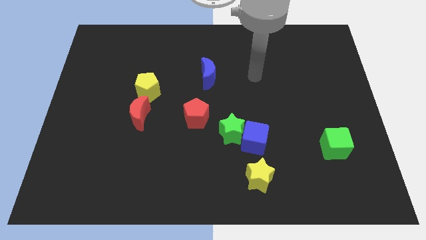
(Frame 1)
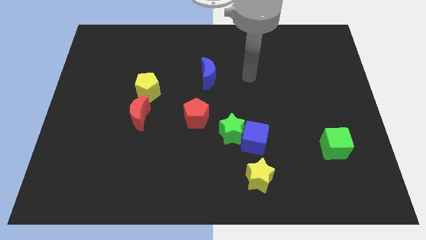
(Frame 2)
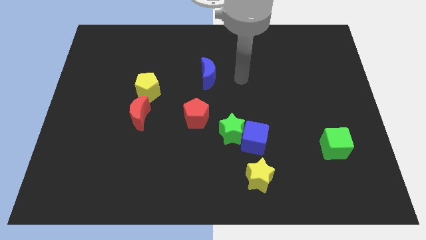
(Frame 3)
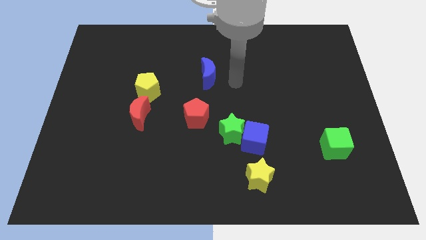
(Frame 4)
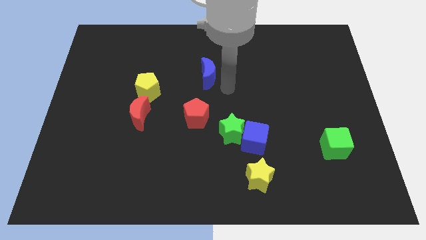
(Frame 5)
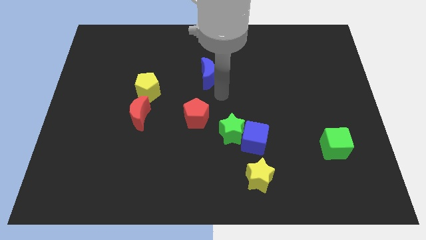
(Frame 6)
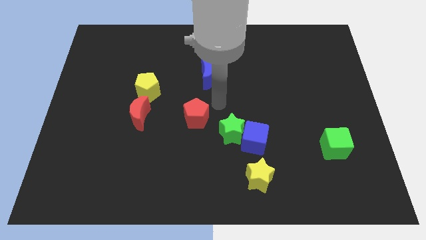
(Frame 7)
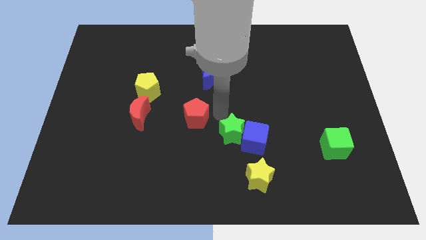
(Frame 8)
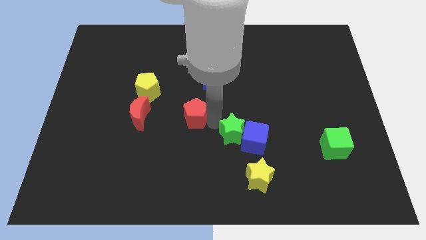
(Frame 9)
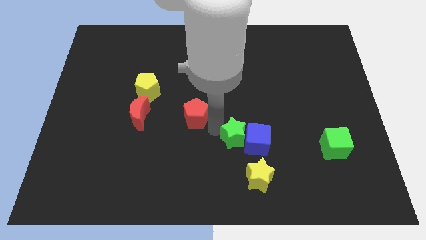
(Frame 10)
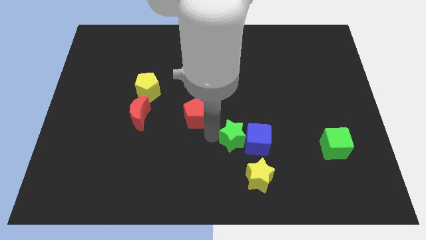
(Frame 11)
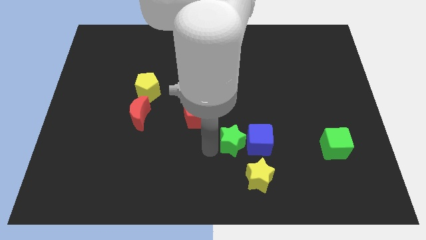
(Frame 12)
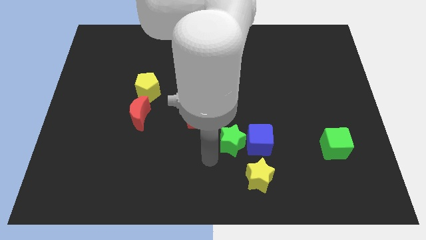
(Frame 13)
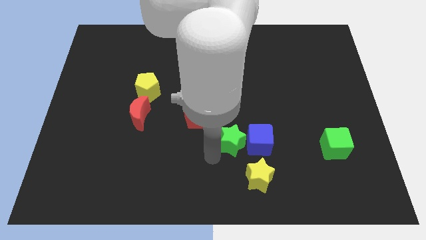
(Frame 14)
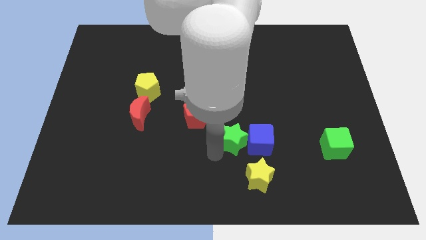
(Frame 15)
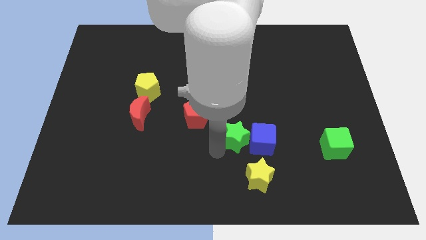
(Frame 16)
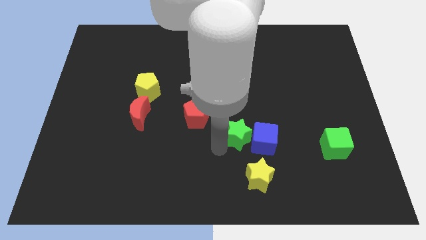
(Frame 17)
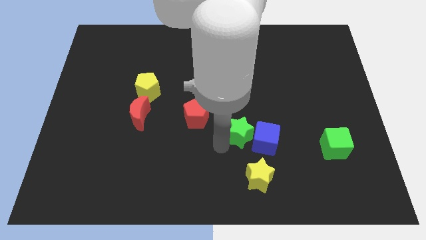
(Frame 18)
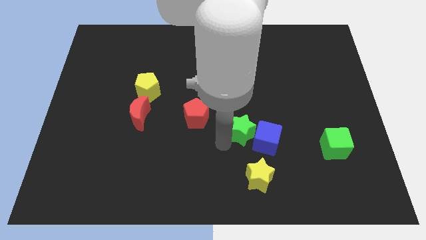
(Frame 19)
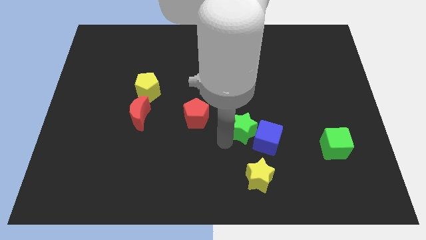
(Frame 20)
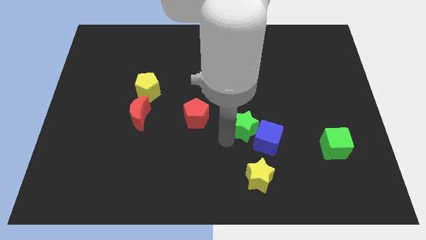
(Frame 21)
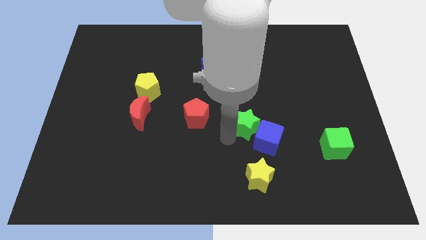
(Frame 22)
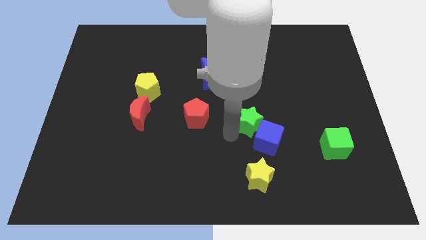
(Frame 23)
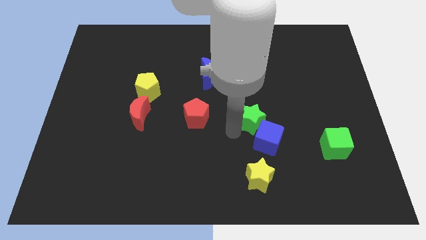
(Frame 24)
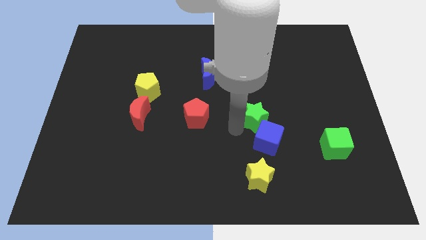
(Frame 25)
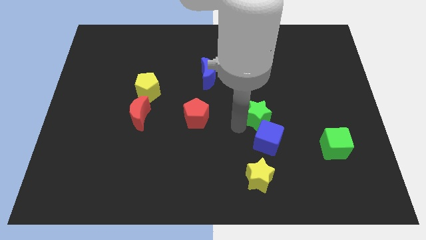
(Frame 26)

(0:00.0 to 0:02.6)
slide the green star up and to the right a little

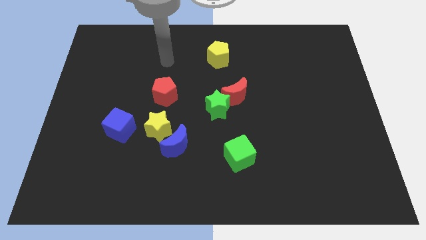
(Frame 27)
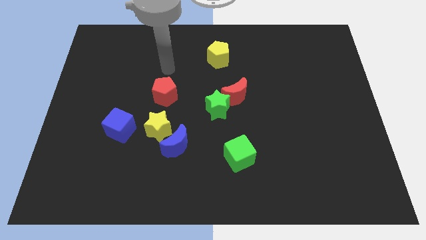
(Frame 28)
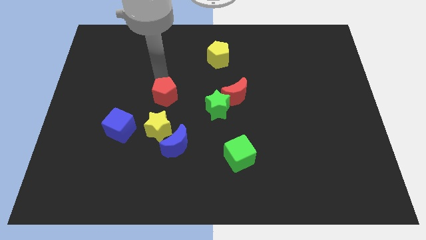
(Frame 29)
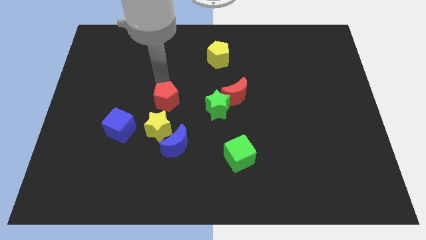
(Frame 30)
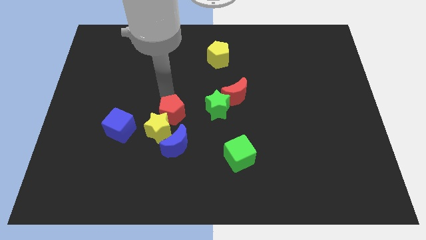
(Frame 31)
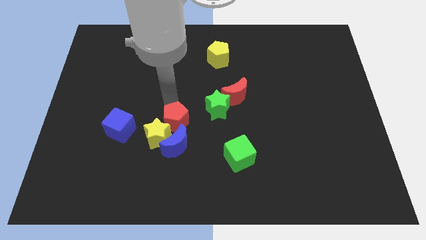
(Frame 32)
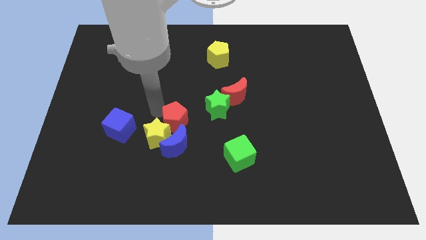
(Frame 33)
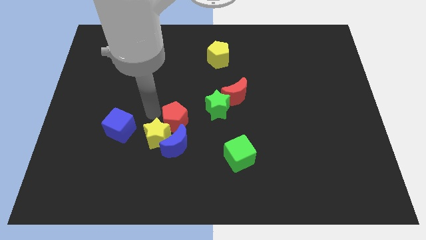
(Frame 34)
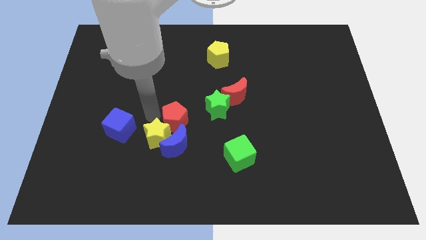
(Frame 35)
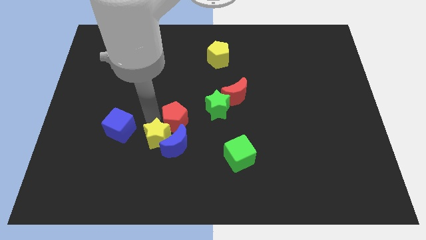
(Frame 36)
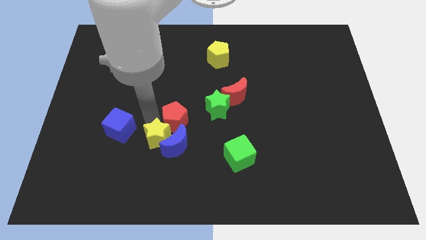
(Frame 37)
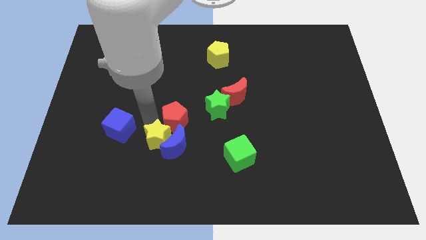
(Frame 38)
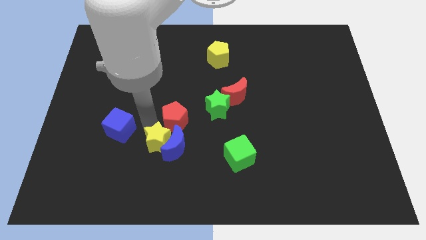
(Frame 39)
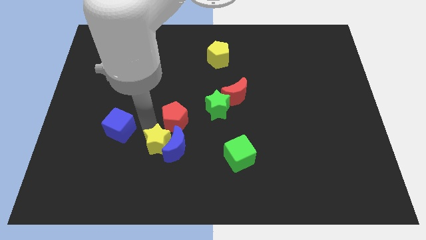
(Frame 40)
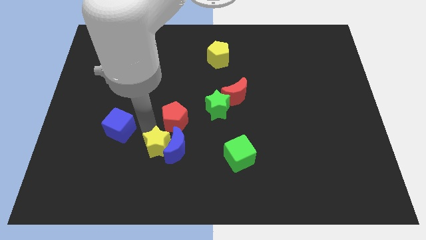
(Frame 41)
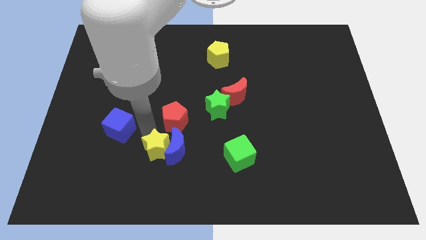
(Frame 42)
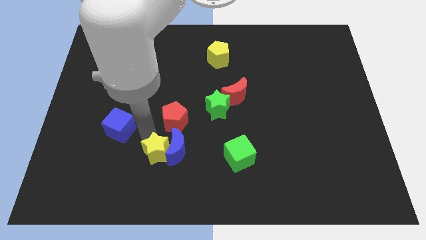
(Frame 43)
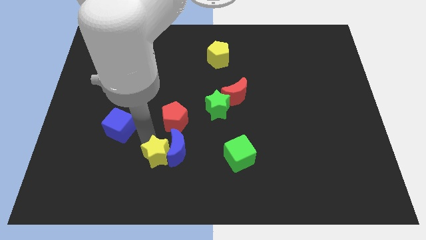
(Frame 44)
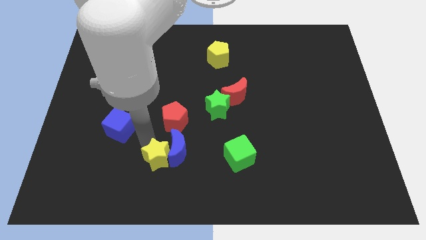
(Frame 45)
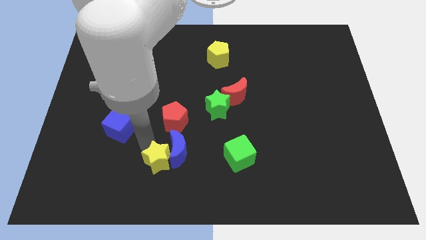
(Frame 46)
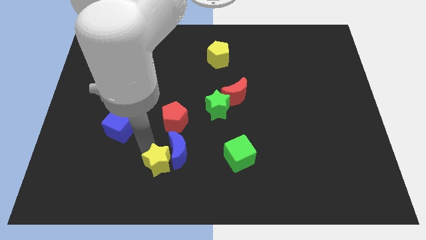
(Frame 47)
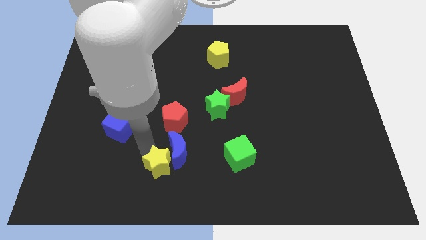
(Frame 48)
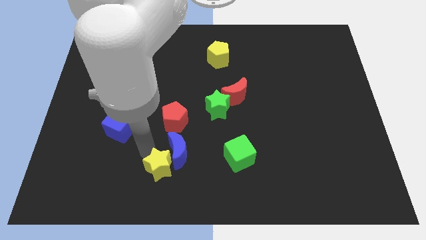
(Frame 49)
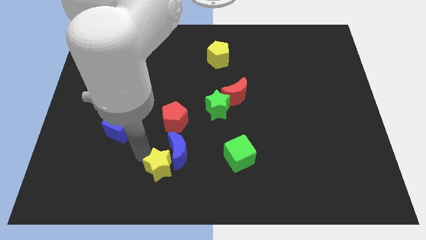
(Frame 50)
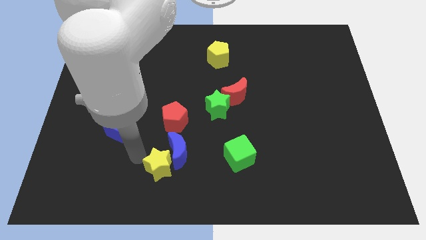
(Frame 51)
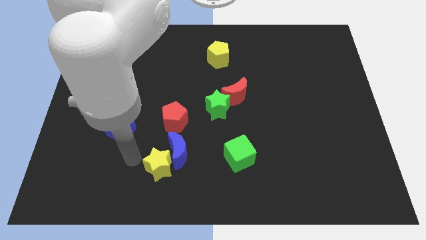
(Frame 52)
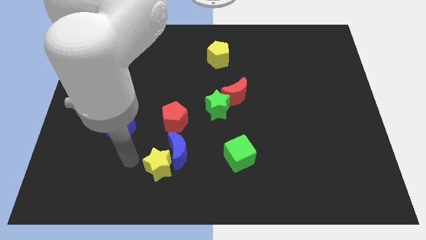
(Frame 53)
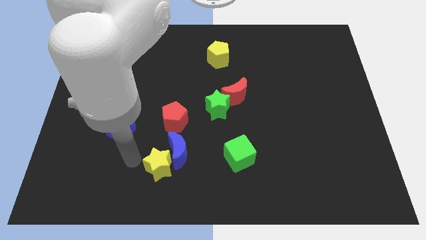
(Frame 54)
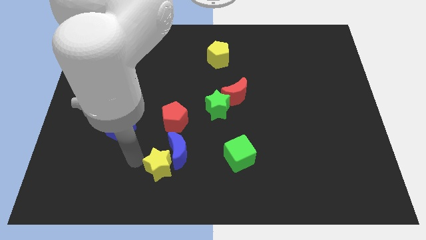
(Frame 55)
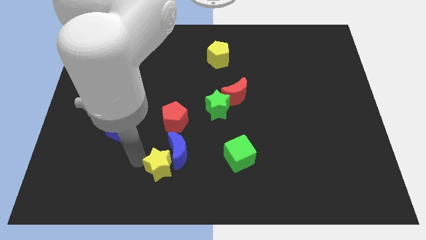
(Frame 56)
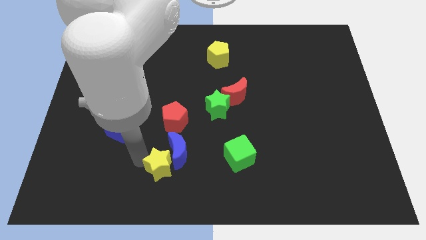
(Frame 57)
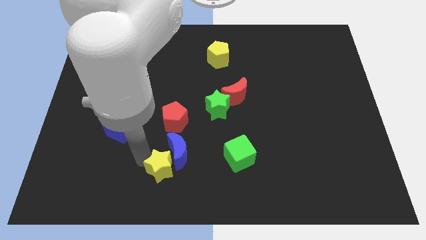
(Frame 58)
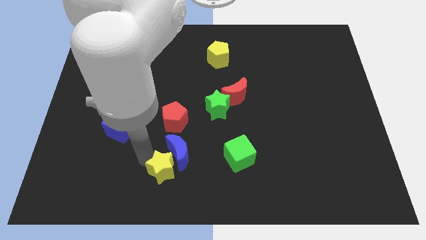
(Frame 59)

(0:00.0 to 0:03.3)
slightly move the yellow star downwards and then right

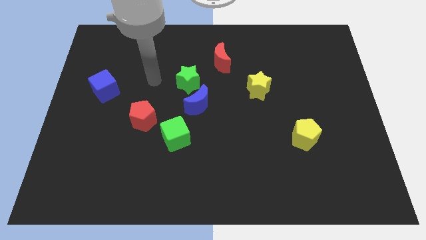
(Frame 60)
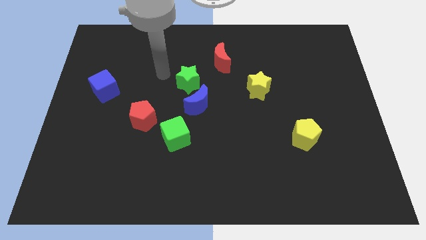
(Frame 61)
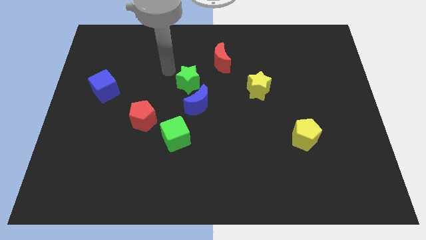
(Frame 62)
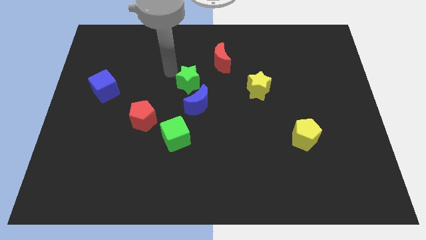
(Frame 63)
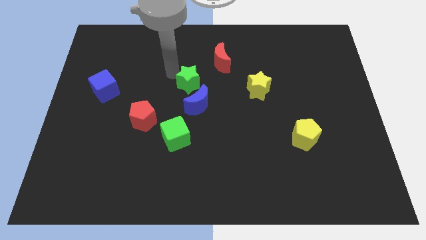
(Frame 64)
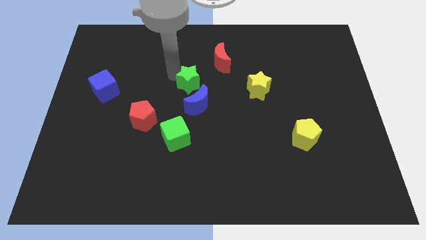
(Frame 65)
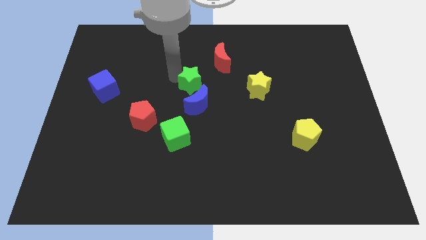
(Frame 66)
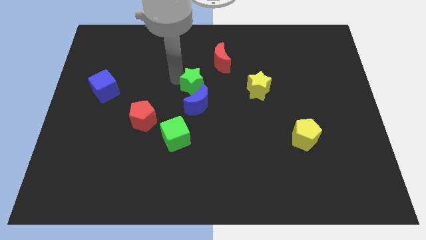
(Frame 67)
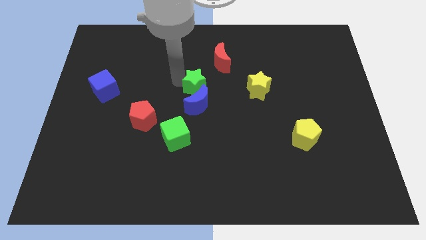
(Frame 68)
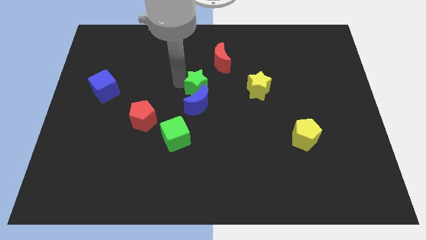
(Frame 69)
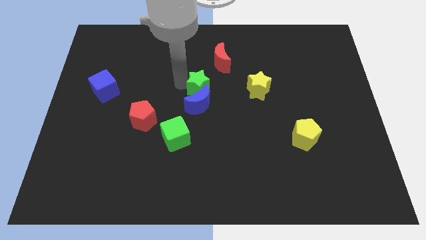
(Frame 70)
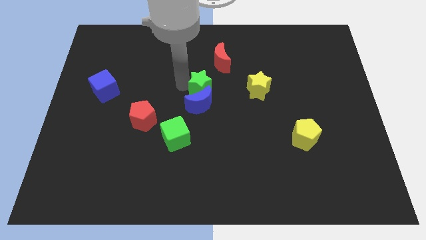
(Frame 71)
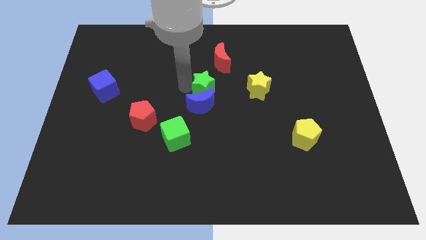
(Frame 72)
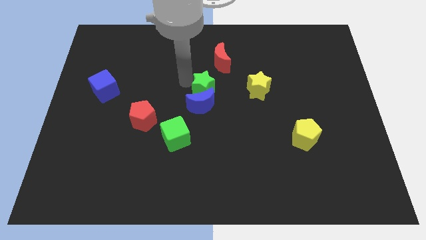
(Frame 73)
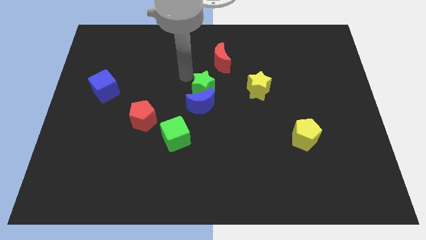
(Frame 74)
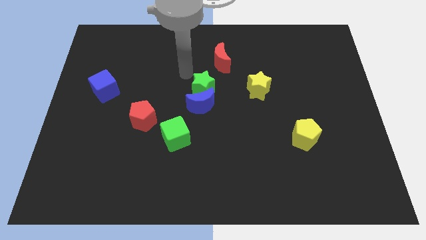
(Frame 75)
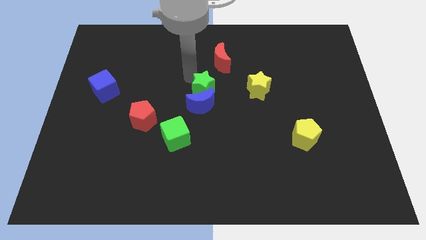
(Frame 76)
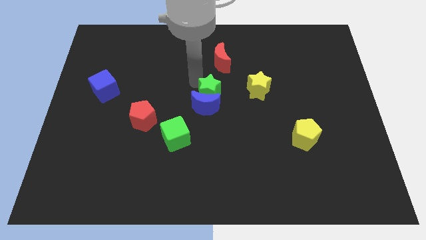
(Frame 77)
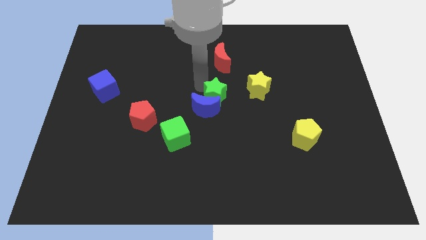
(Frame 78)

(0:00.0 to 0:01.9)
slightly push the green star down and then right

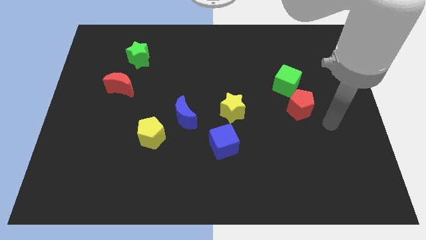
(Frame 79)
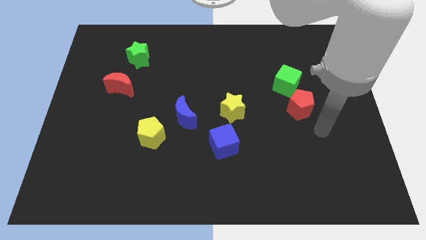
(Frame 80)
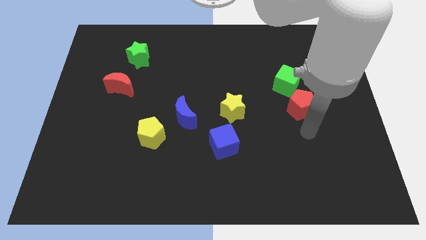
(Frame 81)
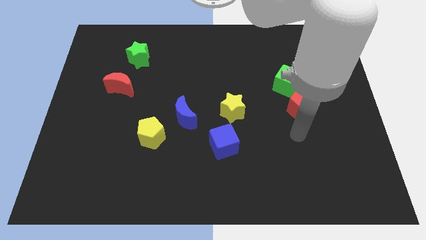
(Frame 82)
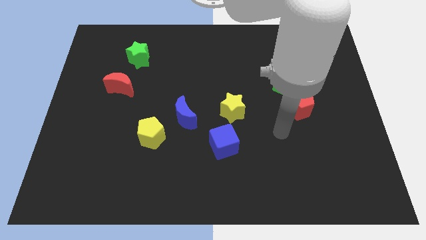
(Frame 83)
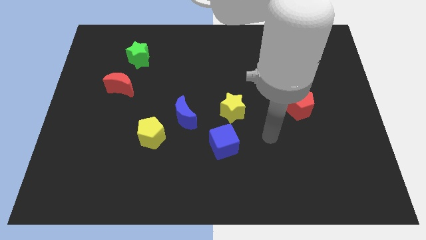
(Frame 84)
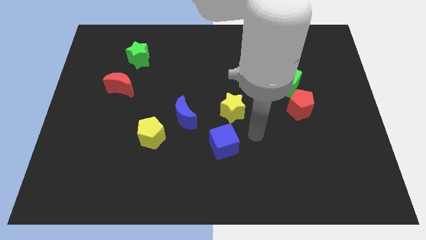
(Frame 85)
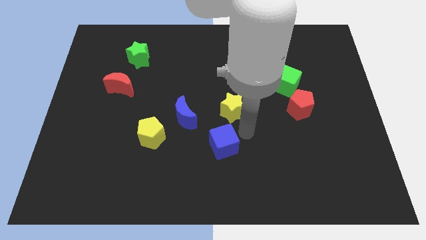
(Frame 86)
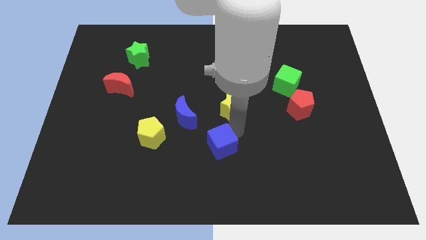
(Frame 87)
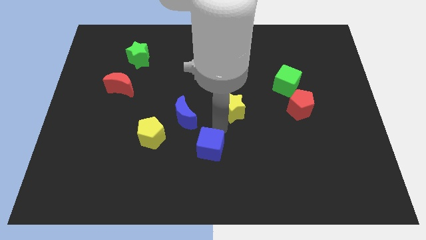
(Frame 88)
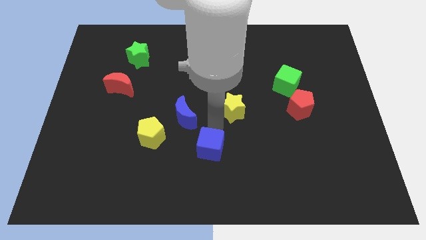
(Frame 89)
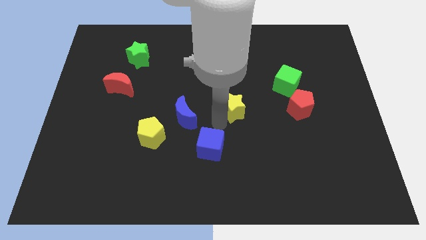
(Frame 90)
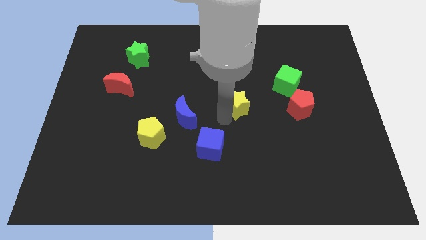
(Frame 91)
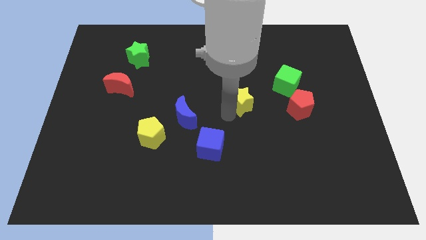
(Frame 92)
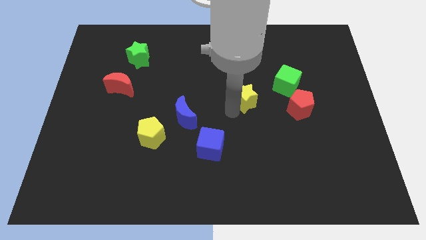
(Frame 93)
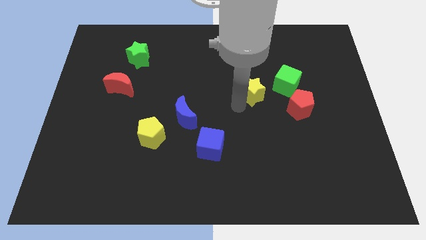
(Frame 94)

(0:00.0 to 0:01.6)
slightly move the yellow star upwards and right diagonally
